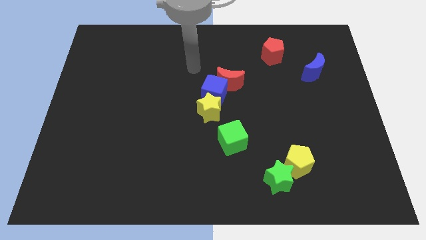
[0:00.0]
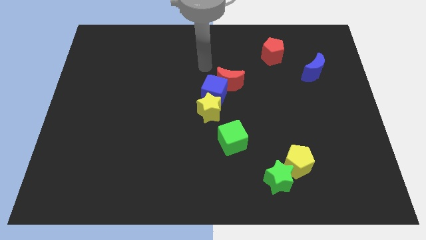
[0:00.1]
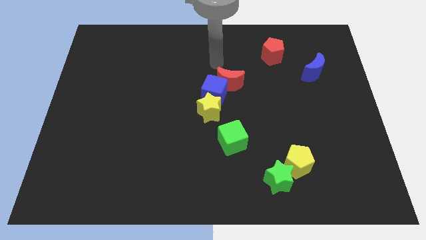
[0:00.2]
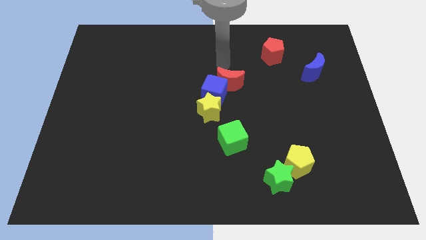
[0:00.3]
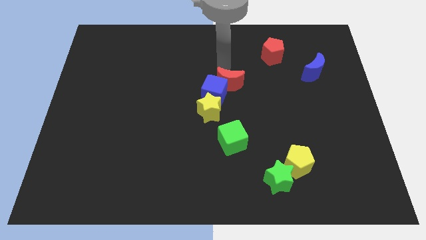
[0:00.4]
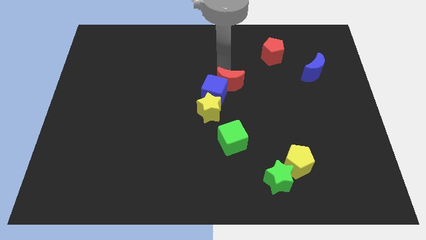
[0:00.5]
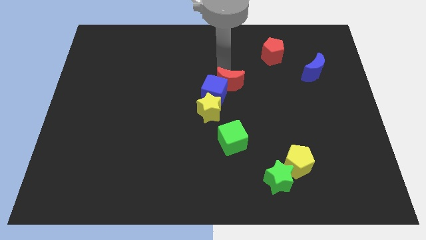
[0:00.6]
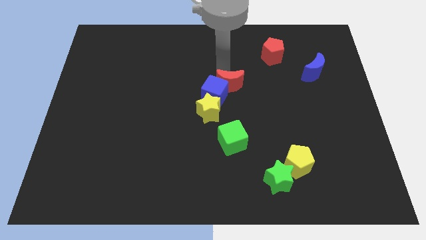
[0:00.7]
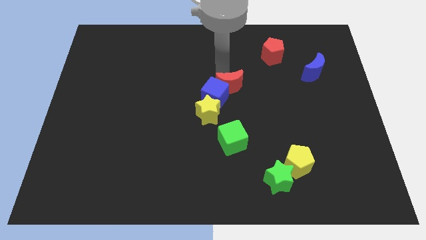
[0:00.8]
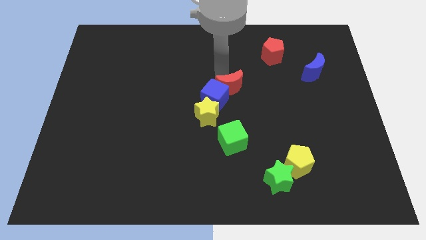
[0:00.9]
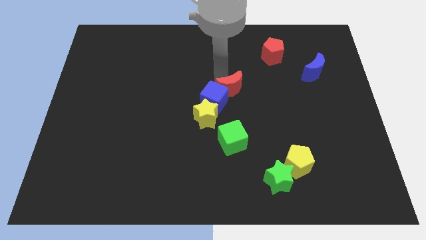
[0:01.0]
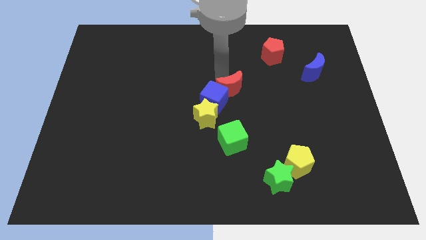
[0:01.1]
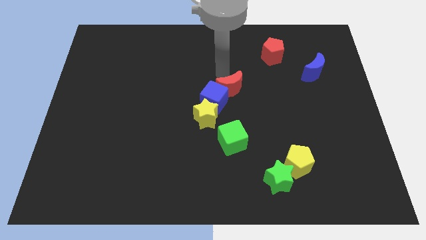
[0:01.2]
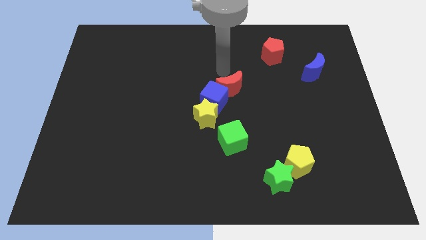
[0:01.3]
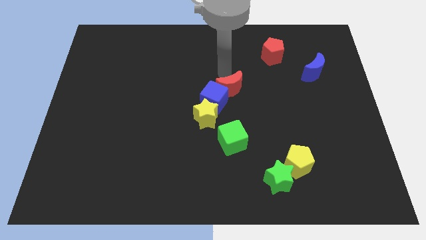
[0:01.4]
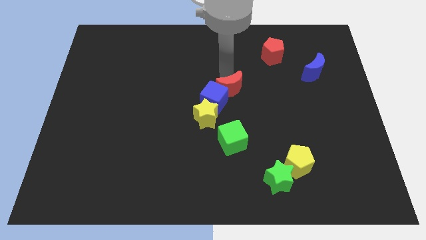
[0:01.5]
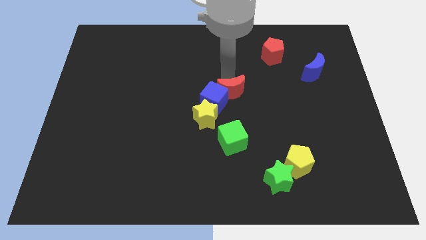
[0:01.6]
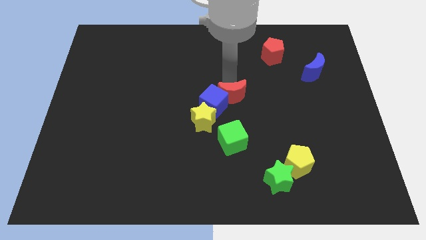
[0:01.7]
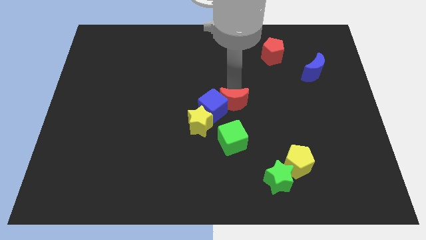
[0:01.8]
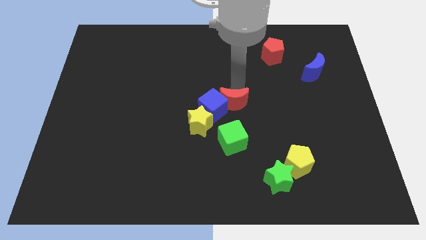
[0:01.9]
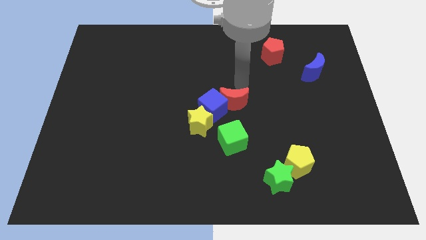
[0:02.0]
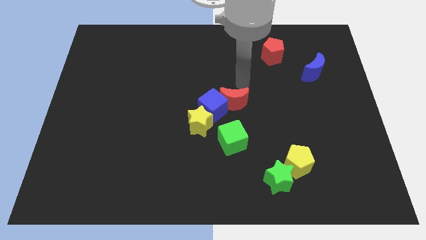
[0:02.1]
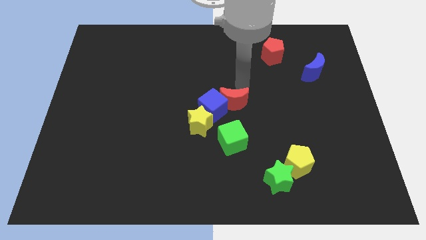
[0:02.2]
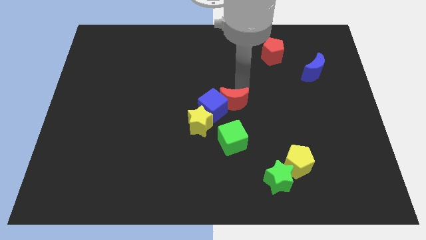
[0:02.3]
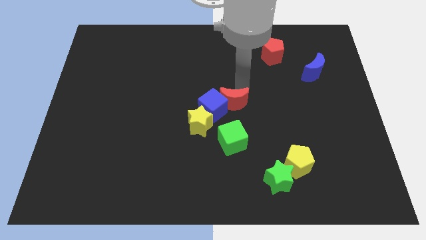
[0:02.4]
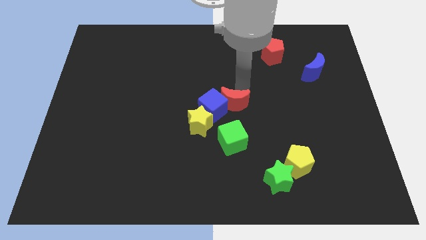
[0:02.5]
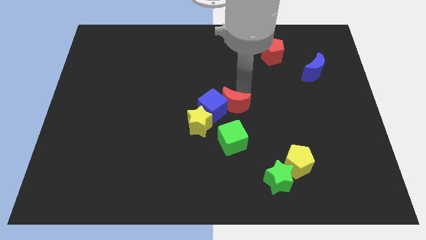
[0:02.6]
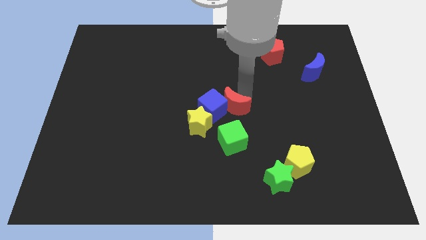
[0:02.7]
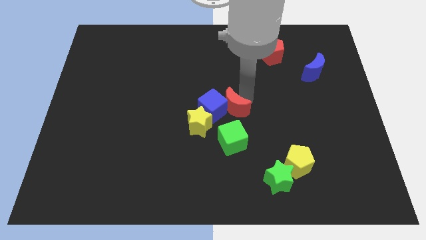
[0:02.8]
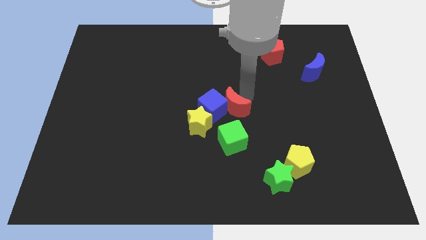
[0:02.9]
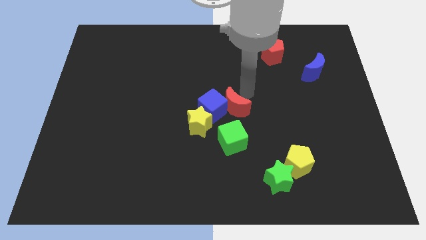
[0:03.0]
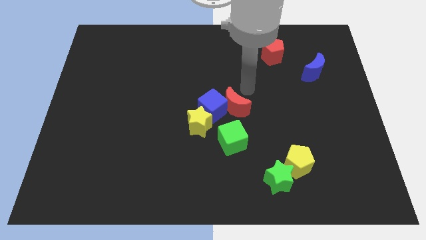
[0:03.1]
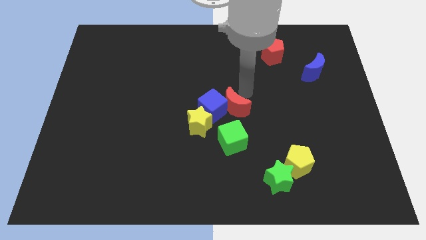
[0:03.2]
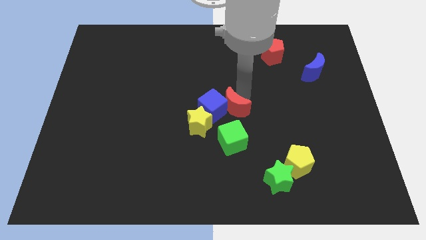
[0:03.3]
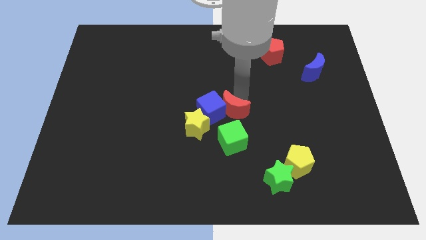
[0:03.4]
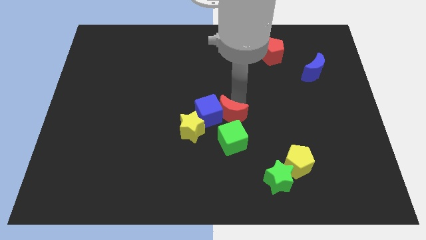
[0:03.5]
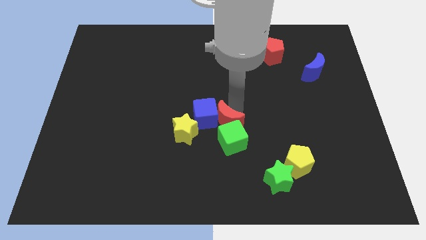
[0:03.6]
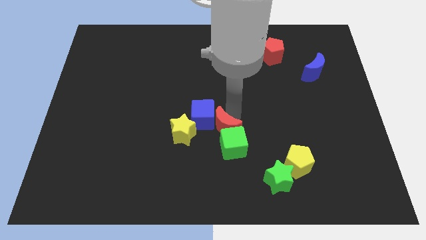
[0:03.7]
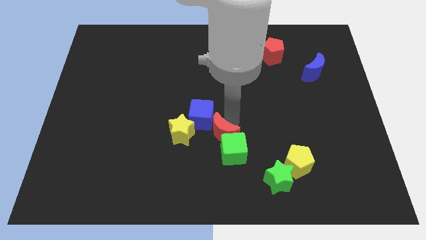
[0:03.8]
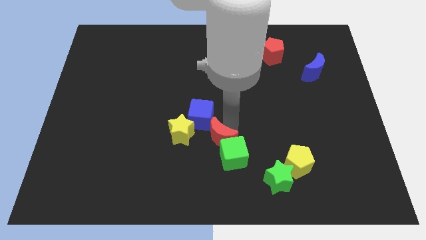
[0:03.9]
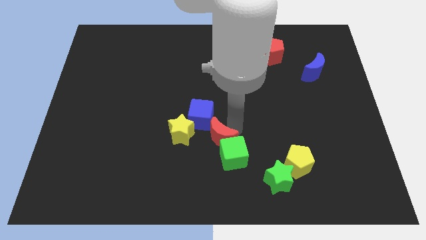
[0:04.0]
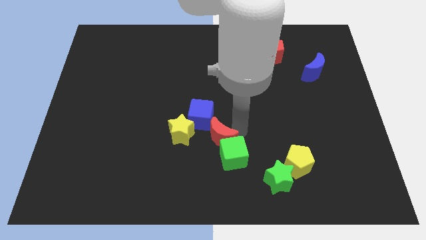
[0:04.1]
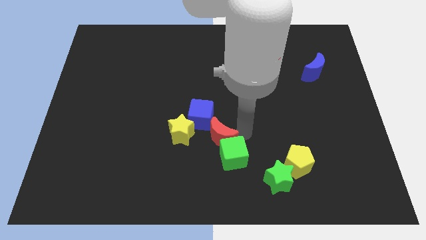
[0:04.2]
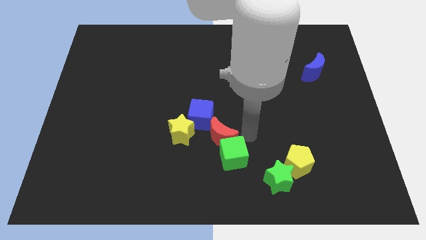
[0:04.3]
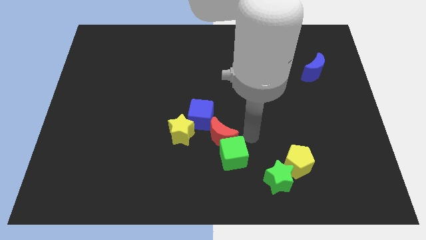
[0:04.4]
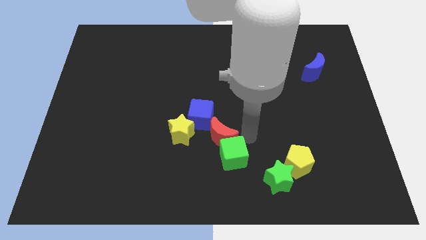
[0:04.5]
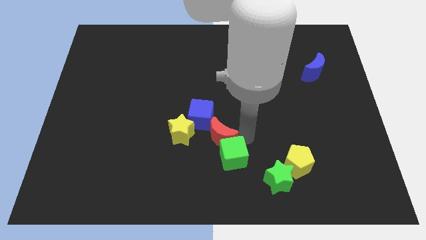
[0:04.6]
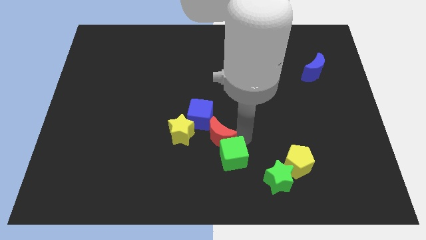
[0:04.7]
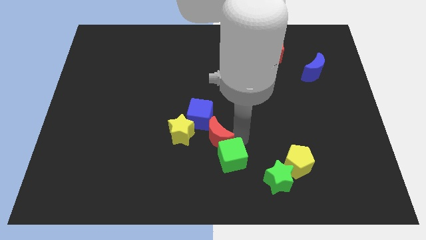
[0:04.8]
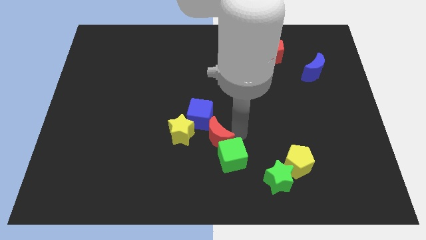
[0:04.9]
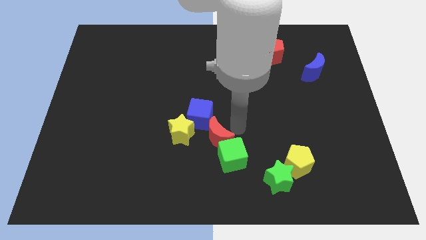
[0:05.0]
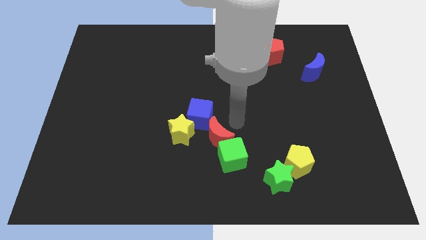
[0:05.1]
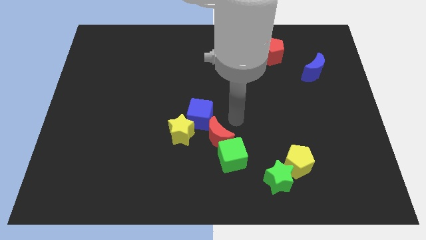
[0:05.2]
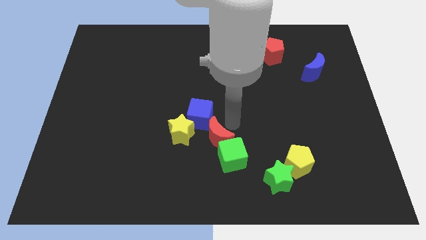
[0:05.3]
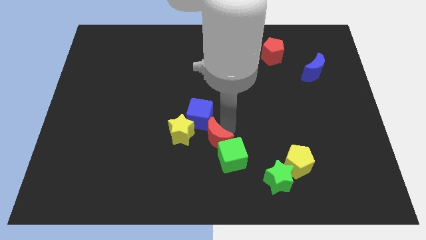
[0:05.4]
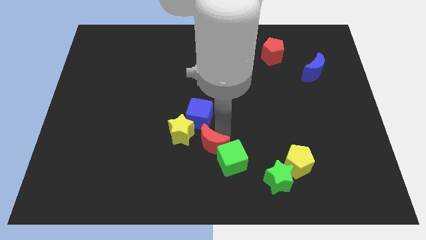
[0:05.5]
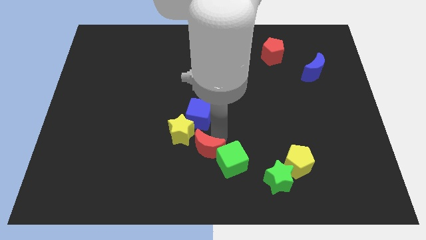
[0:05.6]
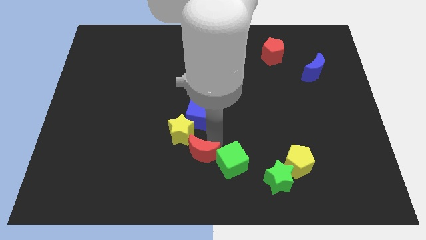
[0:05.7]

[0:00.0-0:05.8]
put the red moon to the bottom side

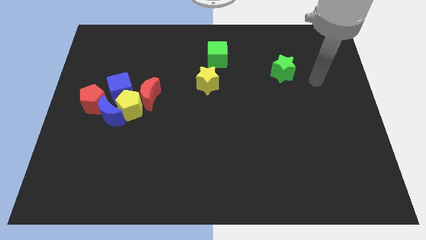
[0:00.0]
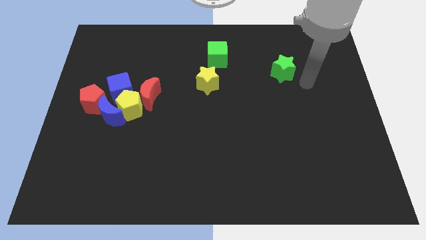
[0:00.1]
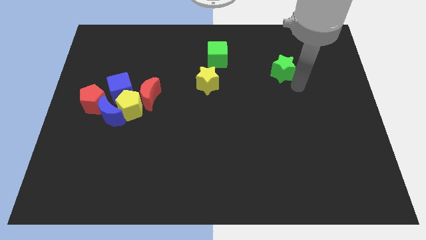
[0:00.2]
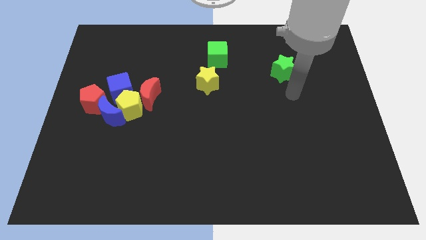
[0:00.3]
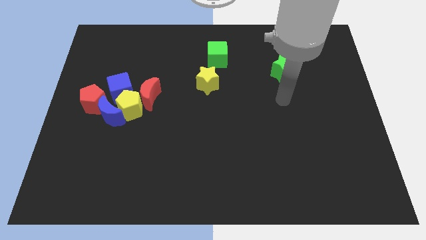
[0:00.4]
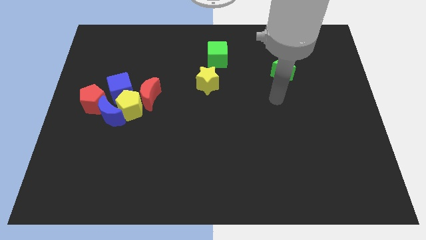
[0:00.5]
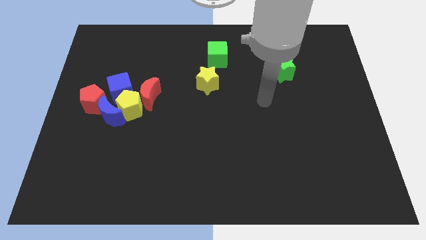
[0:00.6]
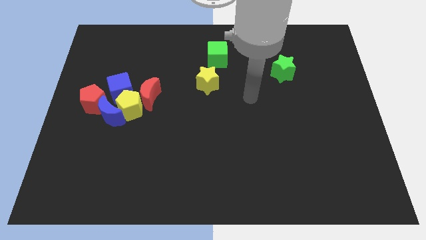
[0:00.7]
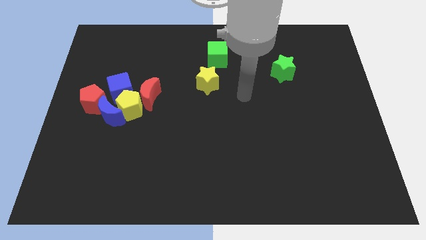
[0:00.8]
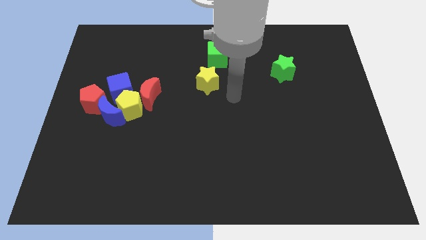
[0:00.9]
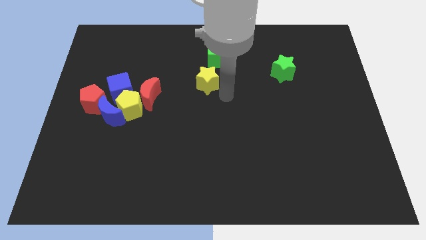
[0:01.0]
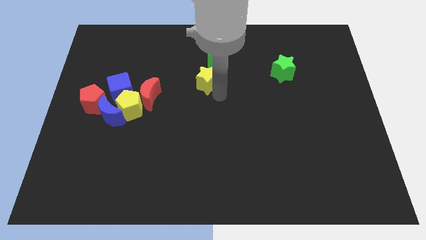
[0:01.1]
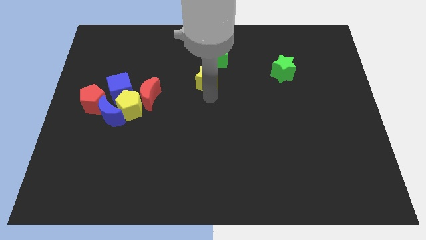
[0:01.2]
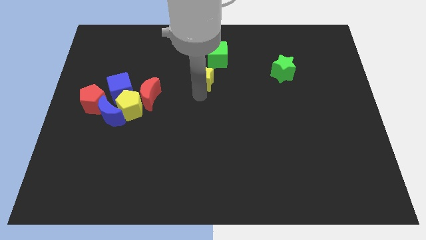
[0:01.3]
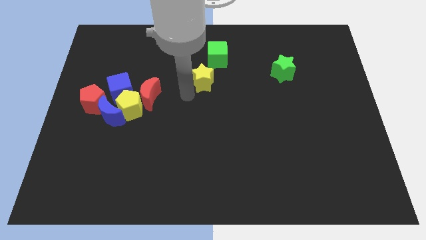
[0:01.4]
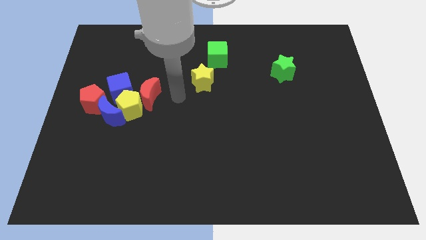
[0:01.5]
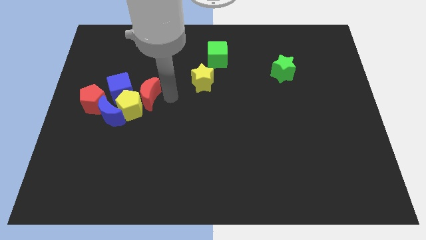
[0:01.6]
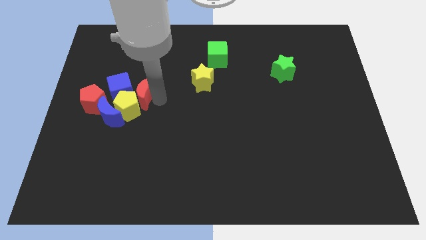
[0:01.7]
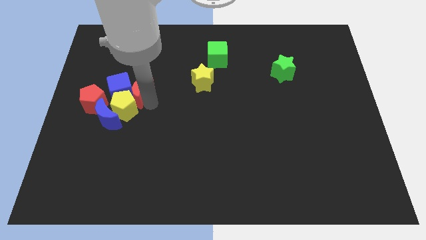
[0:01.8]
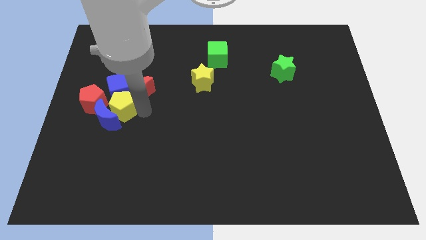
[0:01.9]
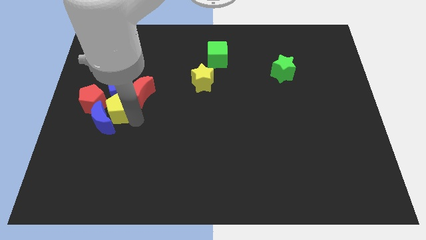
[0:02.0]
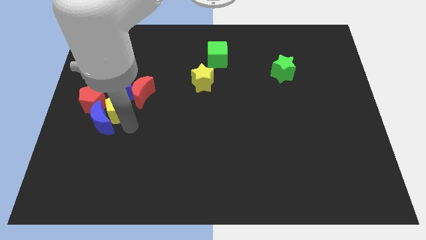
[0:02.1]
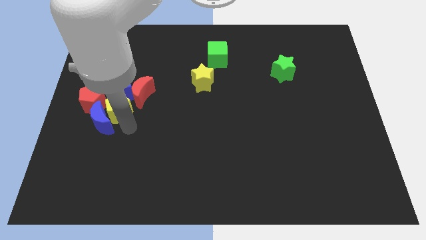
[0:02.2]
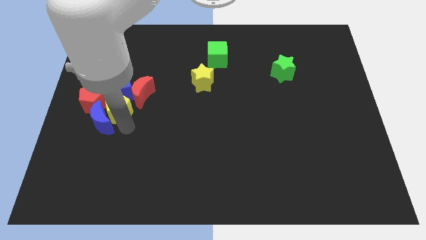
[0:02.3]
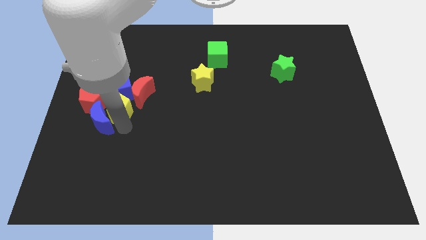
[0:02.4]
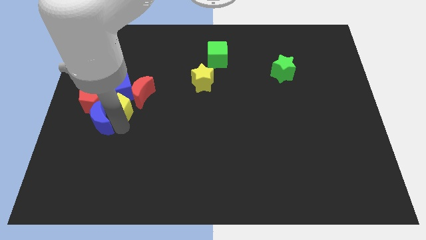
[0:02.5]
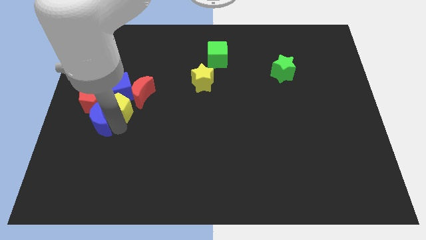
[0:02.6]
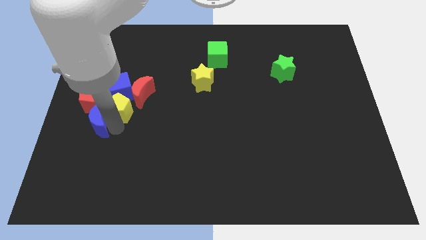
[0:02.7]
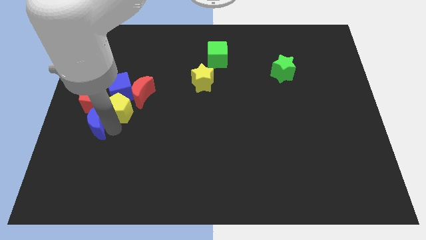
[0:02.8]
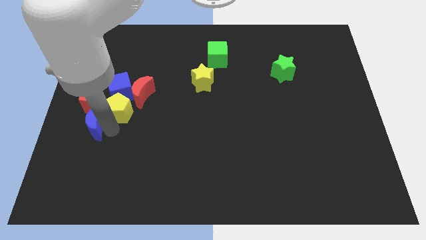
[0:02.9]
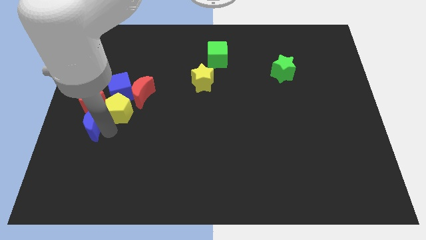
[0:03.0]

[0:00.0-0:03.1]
push the blue moon to the left side of the board
